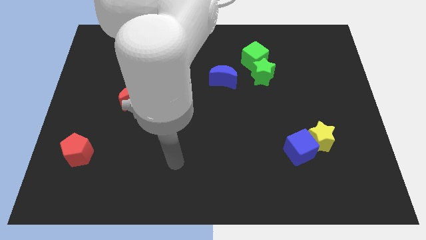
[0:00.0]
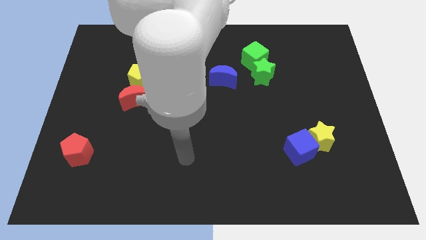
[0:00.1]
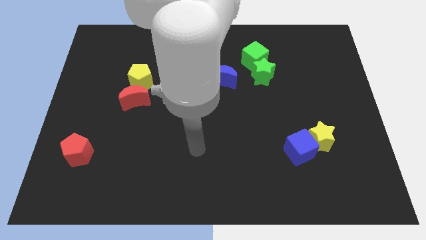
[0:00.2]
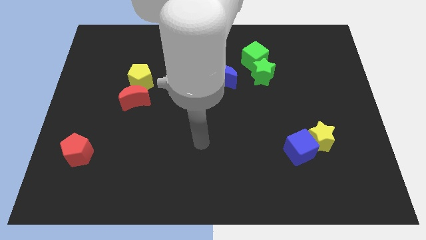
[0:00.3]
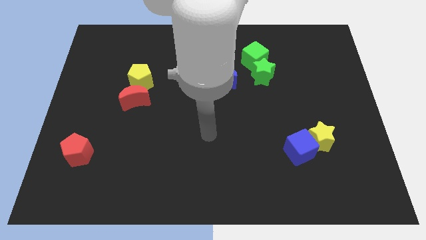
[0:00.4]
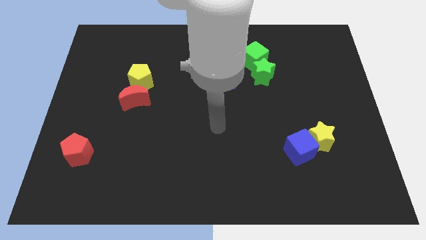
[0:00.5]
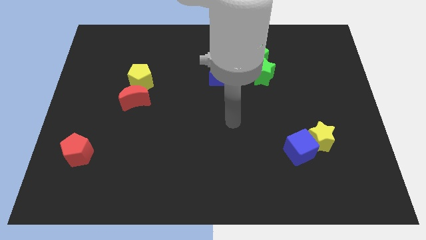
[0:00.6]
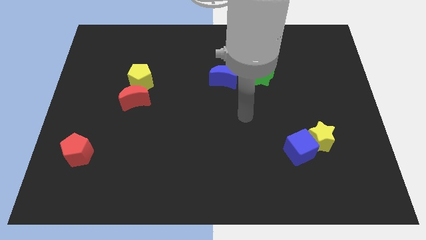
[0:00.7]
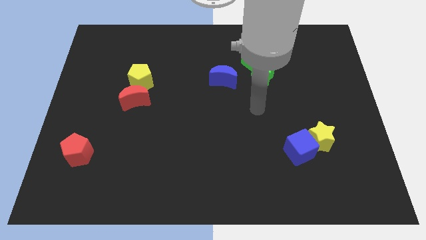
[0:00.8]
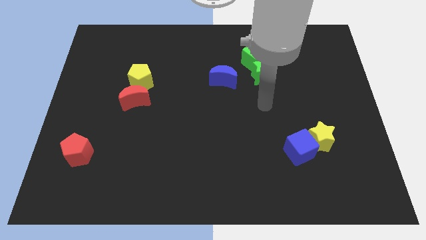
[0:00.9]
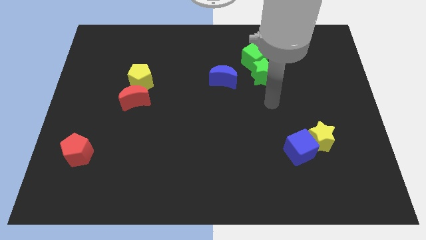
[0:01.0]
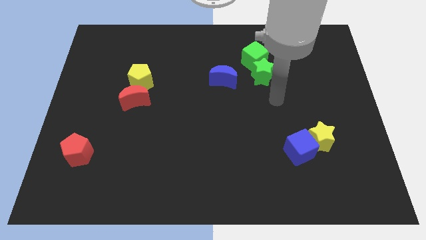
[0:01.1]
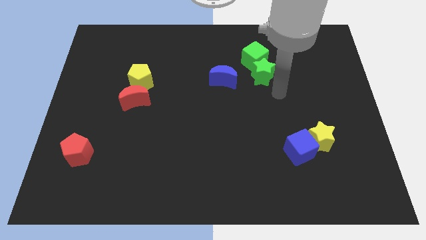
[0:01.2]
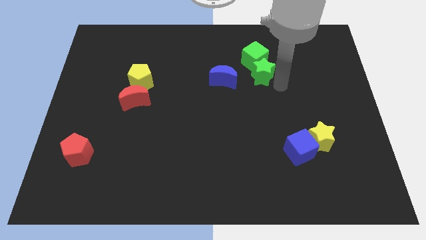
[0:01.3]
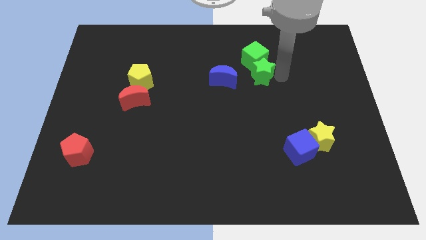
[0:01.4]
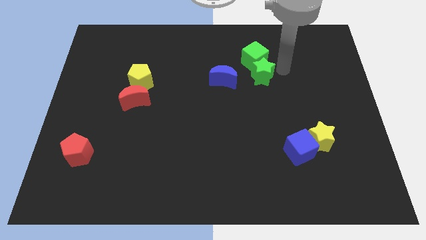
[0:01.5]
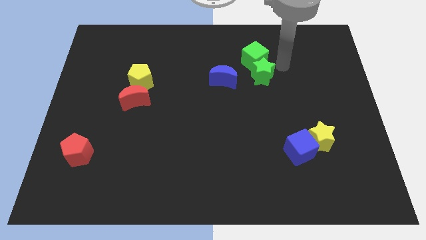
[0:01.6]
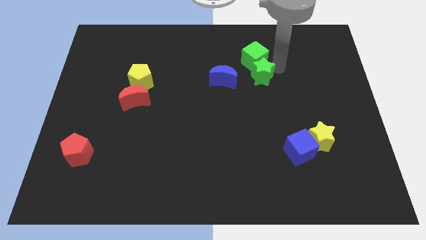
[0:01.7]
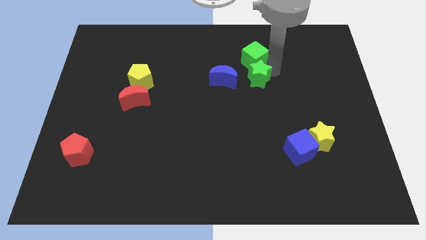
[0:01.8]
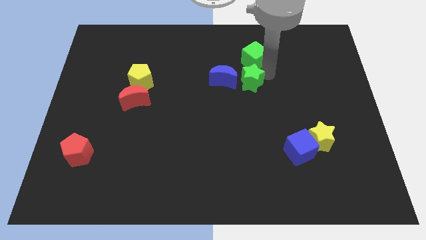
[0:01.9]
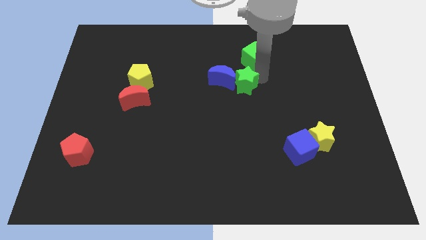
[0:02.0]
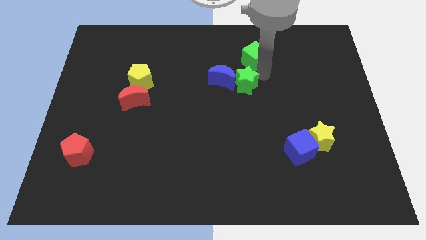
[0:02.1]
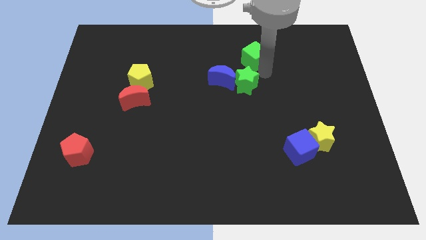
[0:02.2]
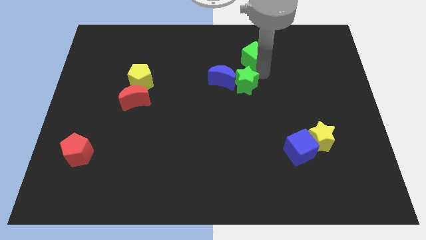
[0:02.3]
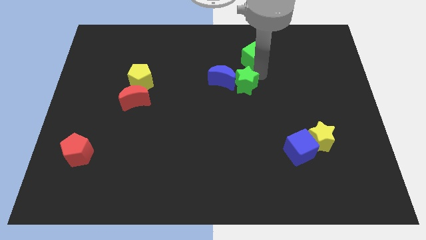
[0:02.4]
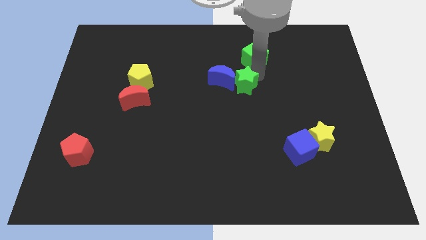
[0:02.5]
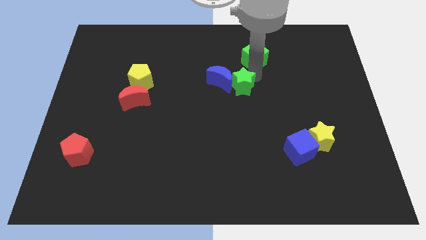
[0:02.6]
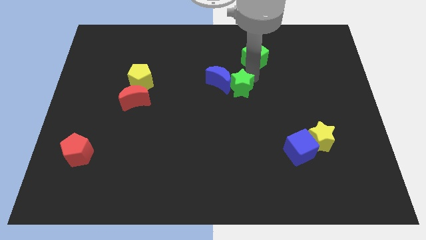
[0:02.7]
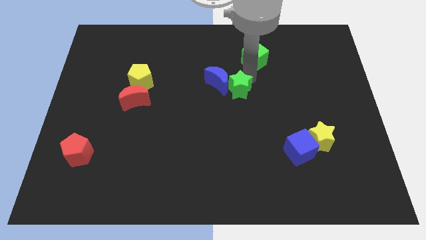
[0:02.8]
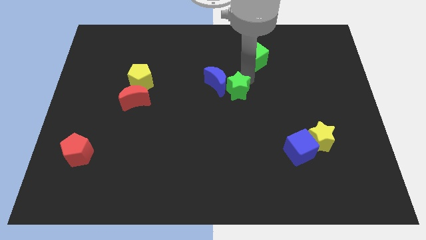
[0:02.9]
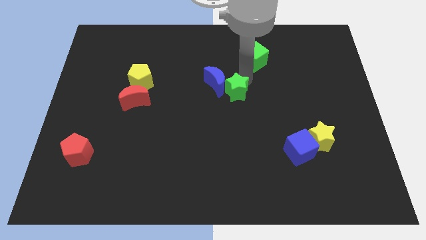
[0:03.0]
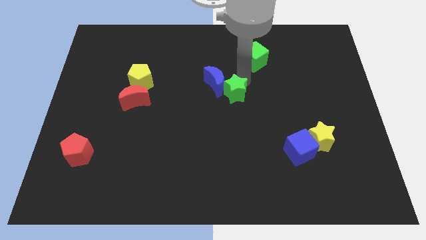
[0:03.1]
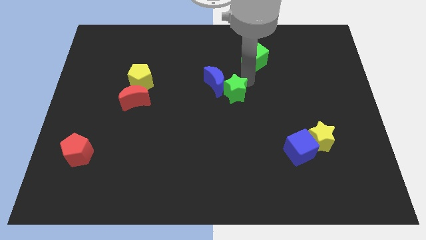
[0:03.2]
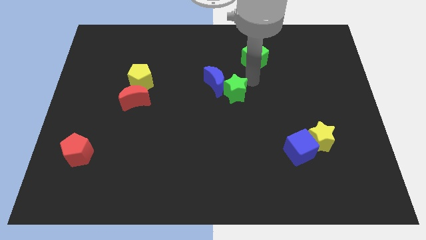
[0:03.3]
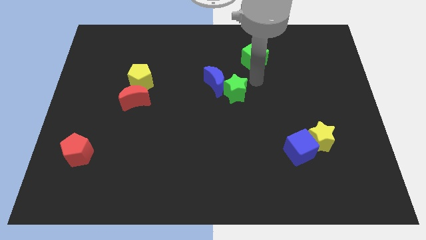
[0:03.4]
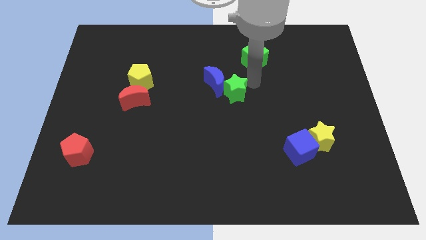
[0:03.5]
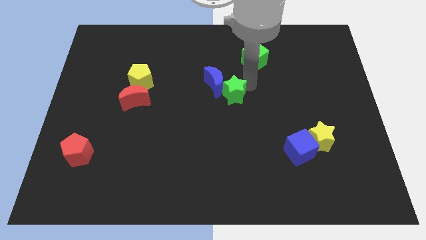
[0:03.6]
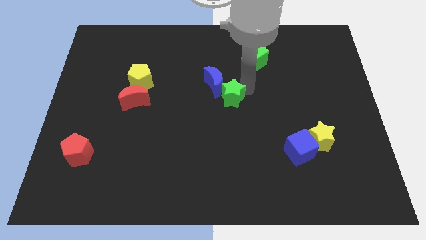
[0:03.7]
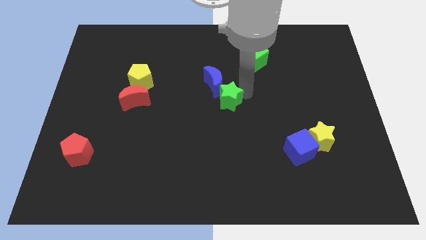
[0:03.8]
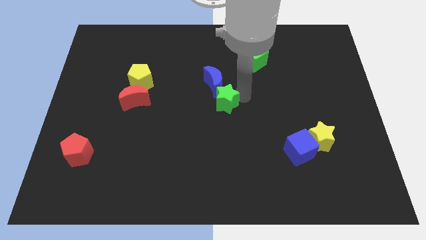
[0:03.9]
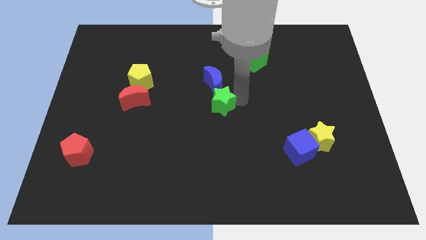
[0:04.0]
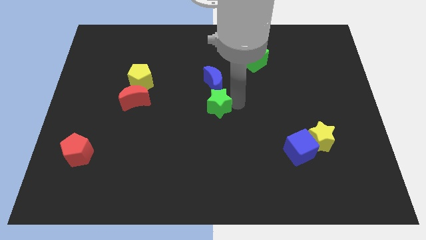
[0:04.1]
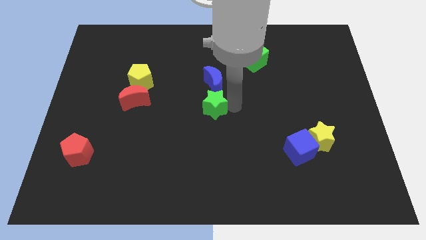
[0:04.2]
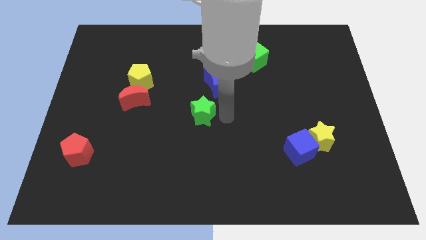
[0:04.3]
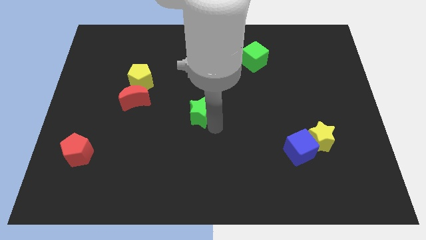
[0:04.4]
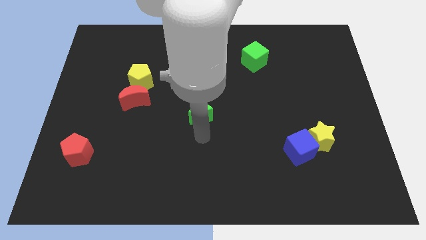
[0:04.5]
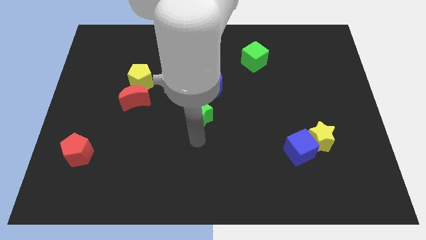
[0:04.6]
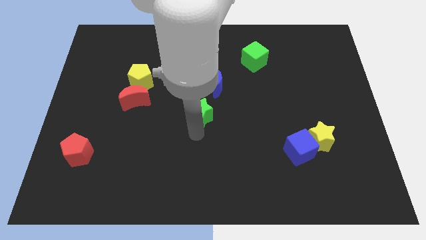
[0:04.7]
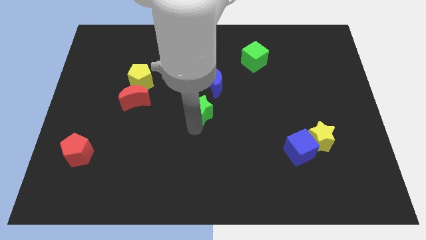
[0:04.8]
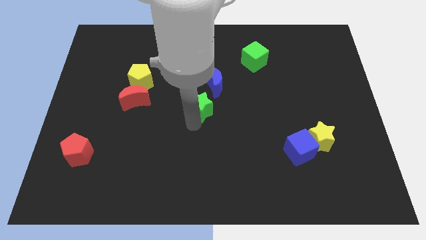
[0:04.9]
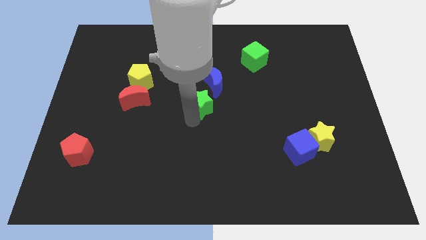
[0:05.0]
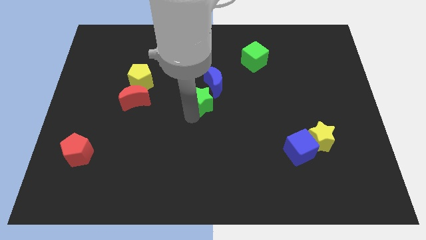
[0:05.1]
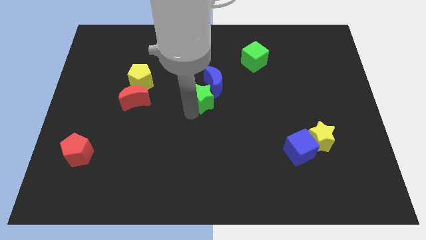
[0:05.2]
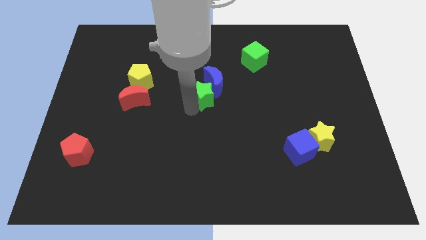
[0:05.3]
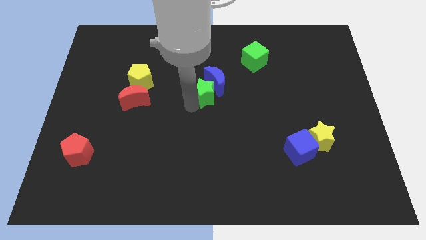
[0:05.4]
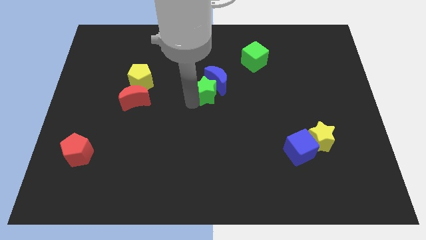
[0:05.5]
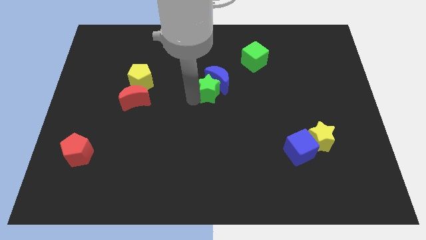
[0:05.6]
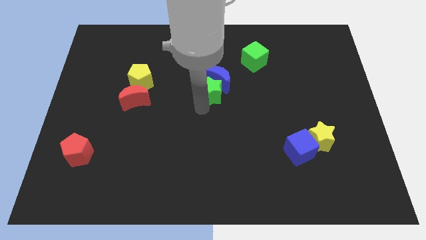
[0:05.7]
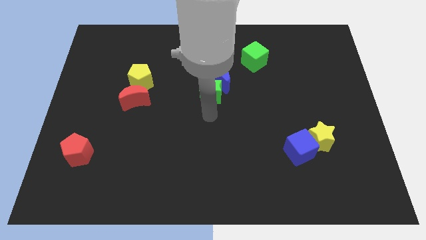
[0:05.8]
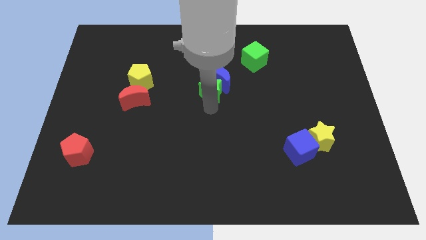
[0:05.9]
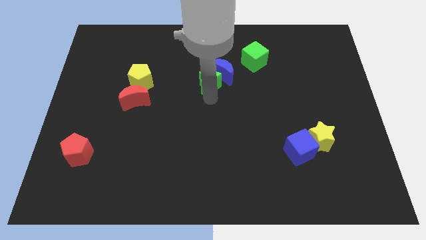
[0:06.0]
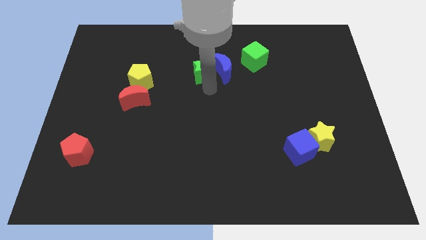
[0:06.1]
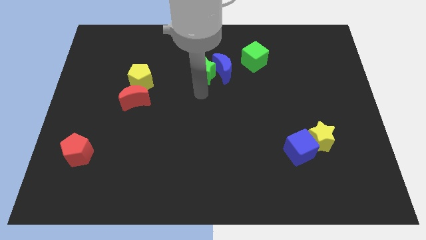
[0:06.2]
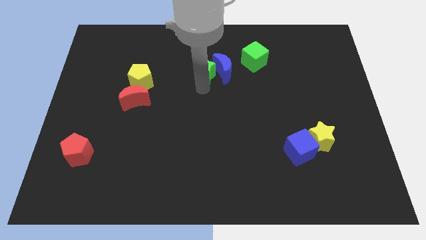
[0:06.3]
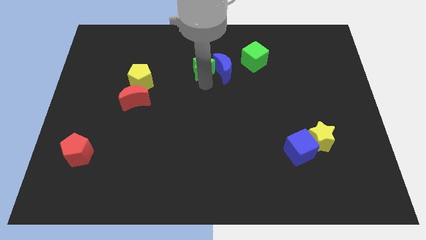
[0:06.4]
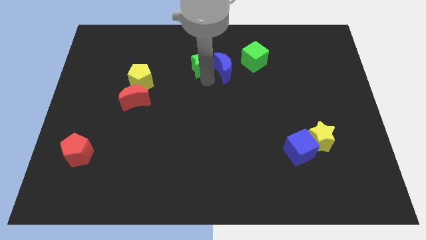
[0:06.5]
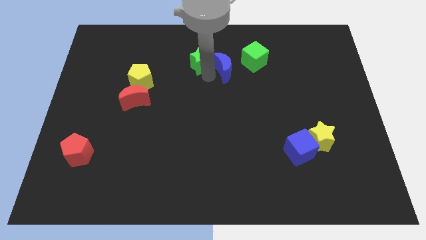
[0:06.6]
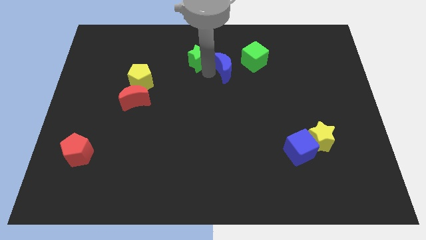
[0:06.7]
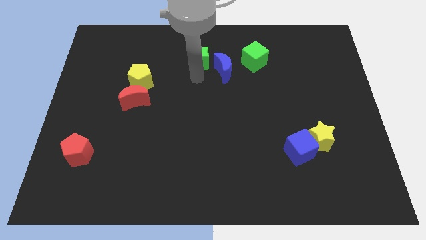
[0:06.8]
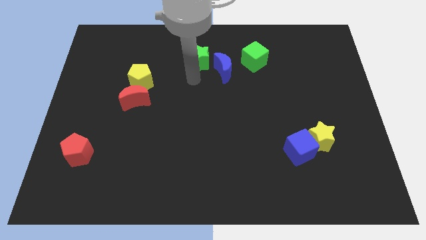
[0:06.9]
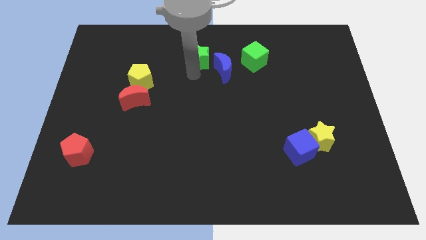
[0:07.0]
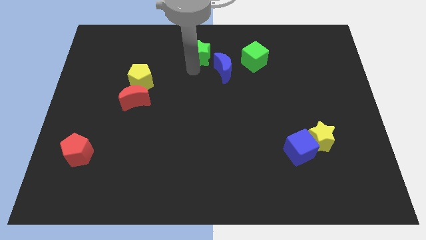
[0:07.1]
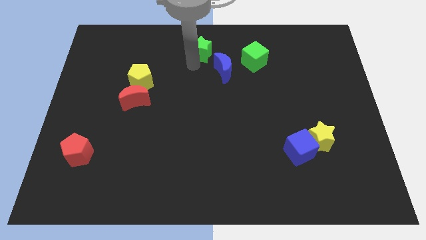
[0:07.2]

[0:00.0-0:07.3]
move the green star to the towards your base
